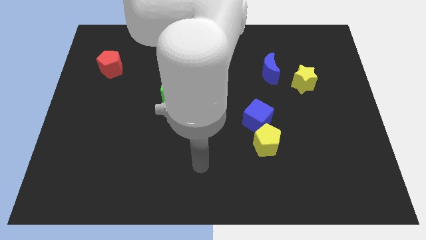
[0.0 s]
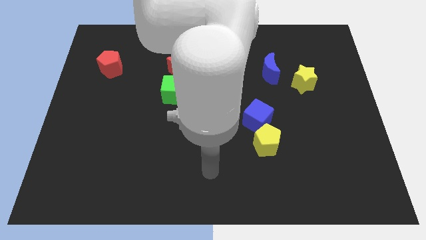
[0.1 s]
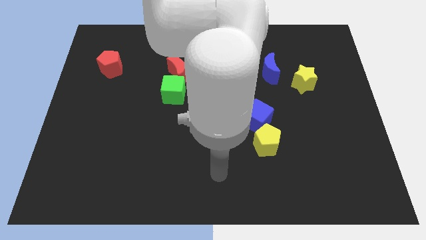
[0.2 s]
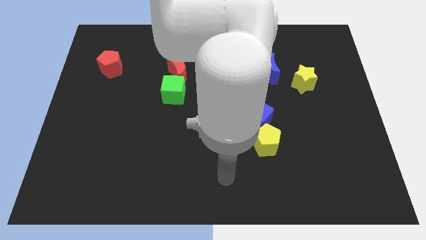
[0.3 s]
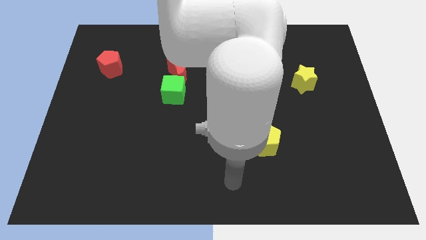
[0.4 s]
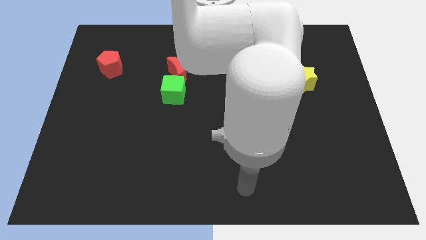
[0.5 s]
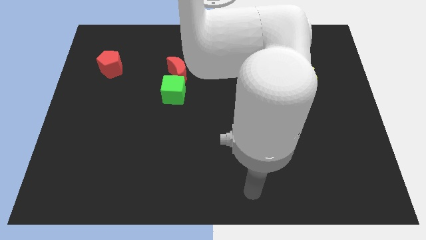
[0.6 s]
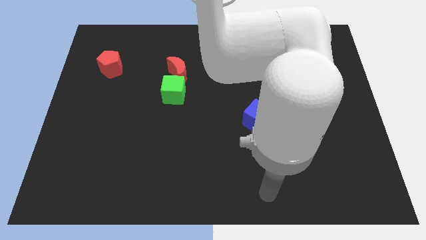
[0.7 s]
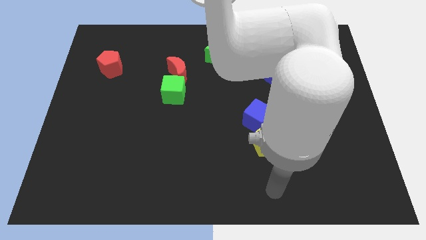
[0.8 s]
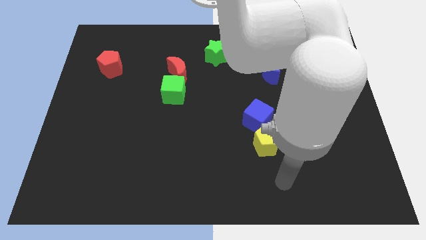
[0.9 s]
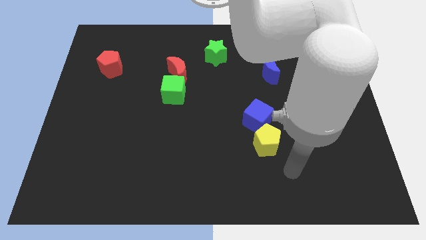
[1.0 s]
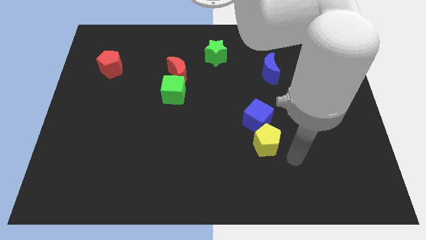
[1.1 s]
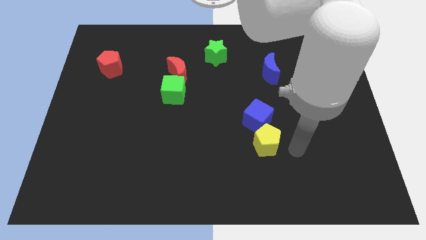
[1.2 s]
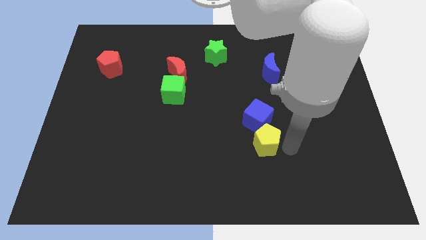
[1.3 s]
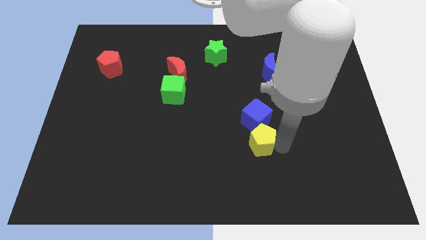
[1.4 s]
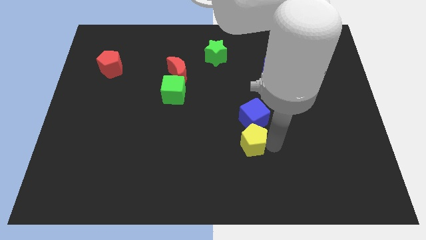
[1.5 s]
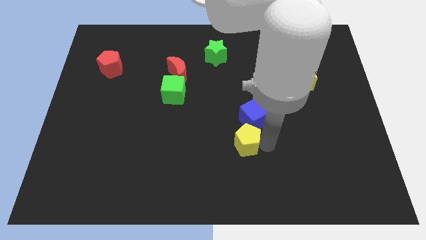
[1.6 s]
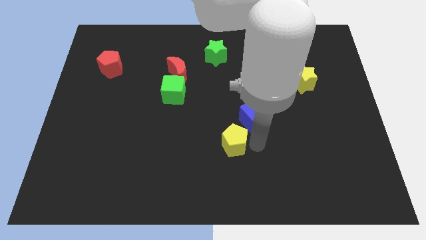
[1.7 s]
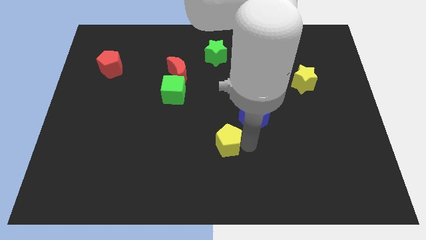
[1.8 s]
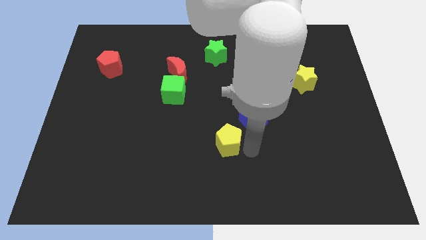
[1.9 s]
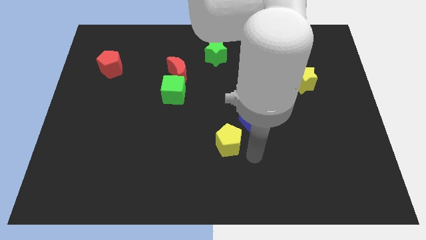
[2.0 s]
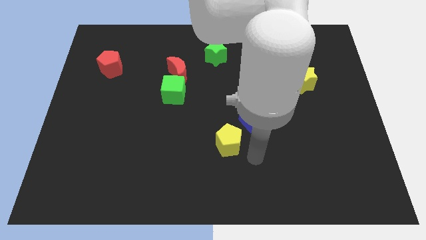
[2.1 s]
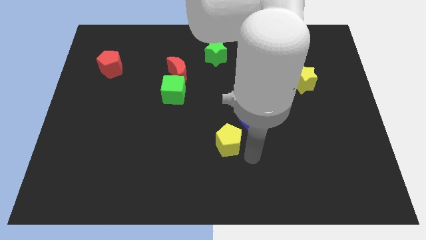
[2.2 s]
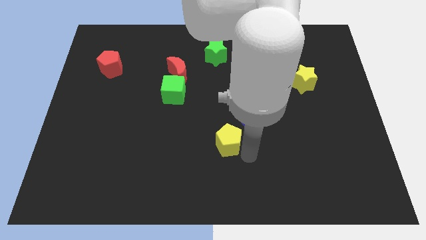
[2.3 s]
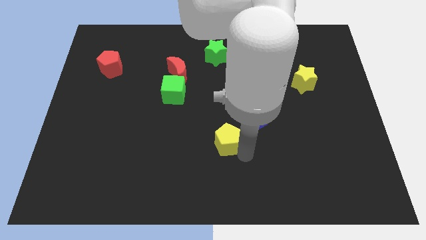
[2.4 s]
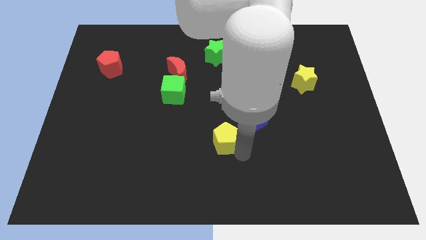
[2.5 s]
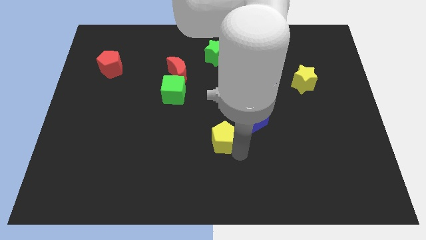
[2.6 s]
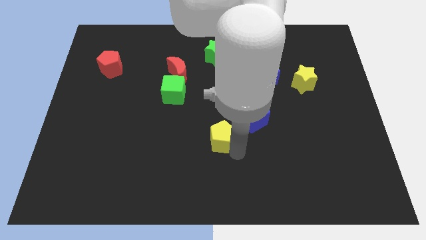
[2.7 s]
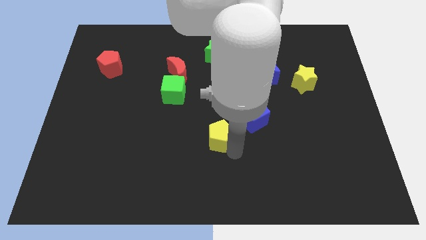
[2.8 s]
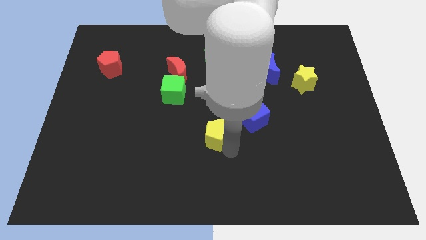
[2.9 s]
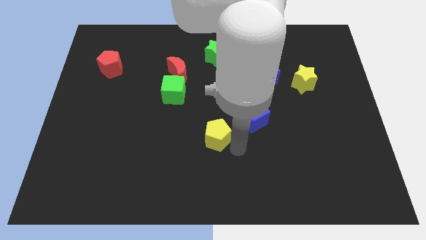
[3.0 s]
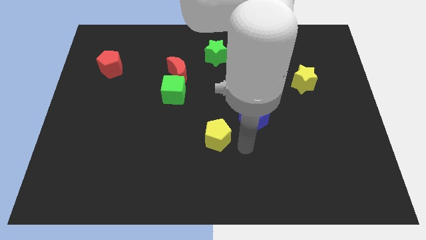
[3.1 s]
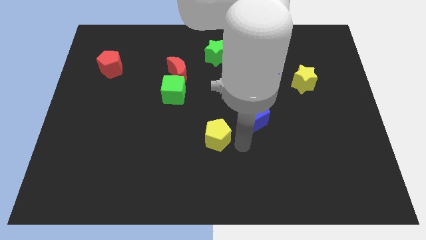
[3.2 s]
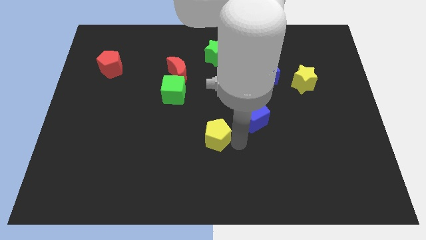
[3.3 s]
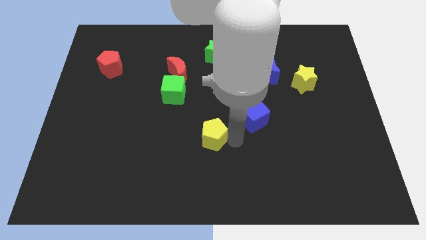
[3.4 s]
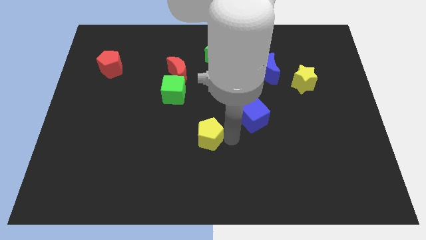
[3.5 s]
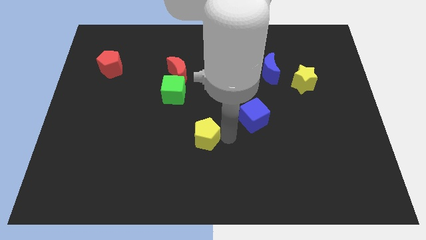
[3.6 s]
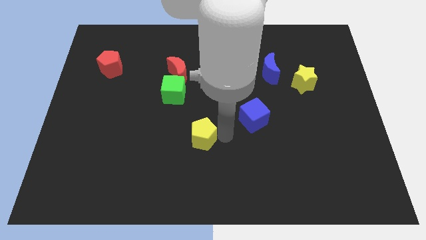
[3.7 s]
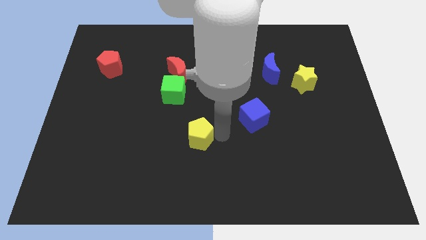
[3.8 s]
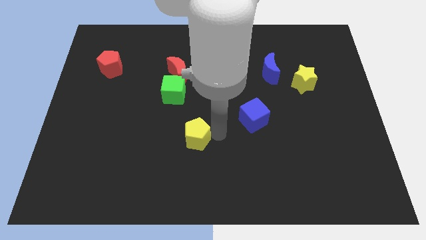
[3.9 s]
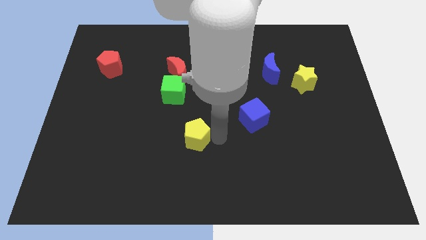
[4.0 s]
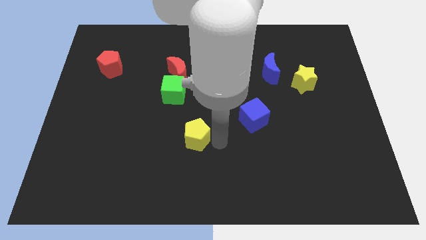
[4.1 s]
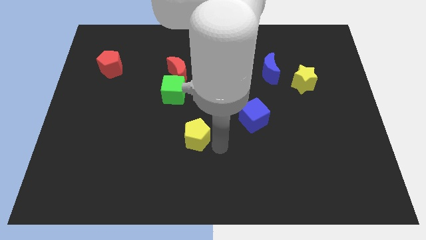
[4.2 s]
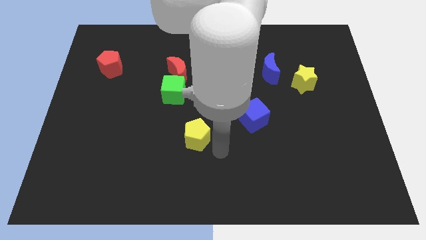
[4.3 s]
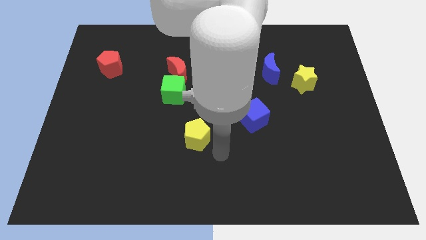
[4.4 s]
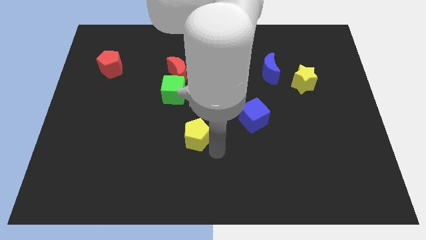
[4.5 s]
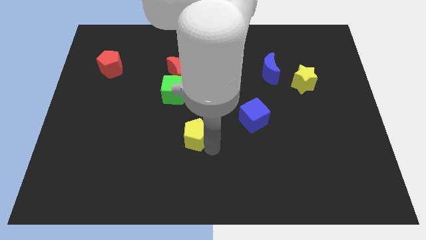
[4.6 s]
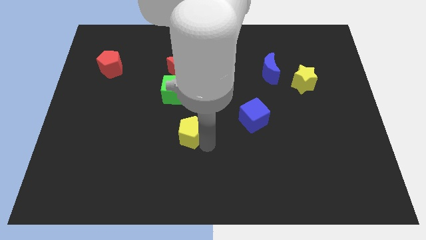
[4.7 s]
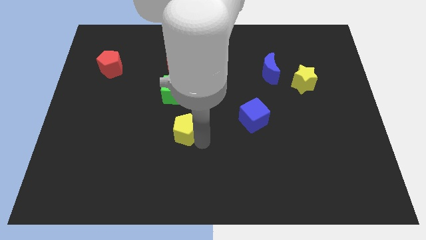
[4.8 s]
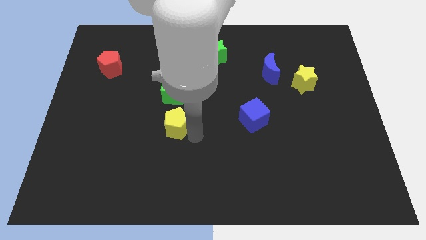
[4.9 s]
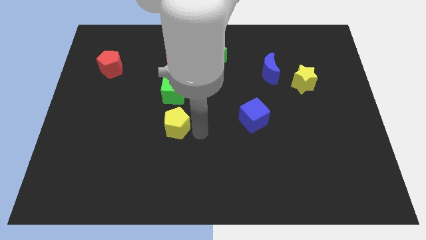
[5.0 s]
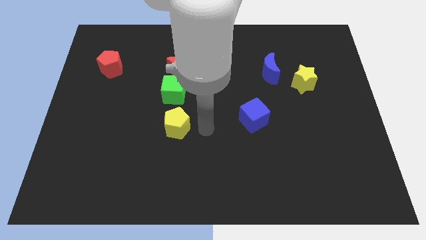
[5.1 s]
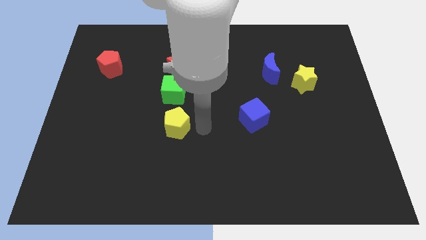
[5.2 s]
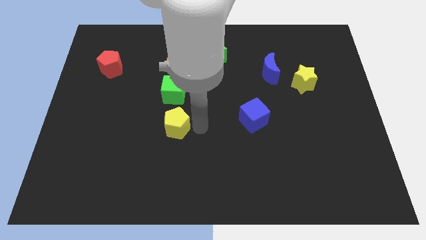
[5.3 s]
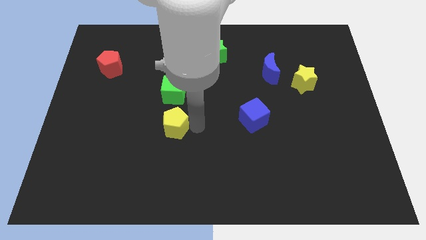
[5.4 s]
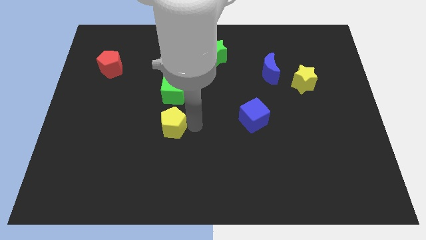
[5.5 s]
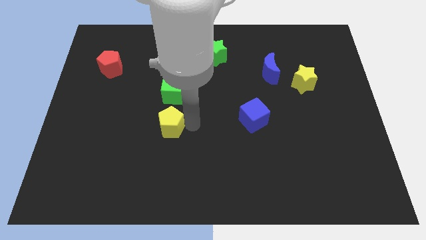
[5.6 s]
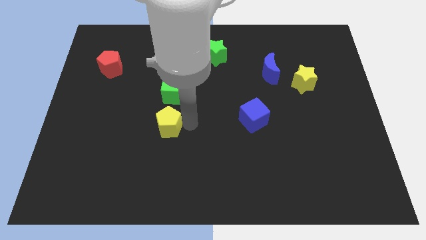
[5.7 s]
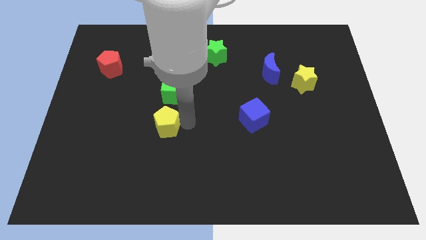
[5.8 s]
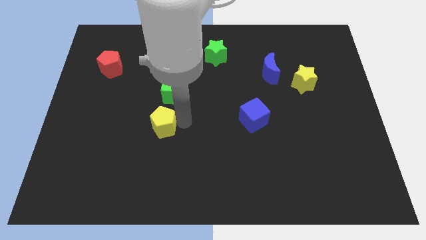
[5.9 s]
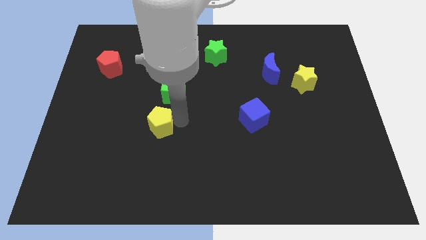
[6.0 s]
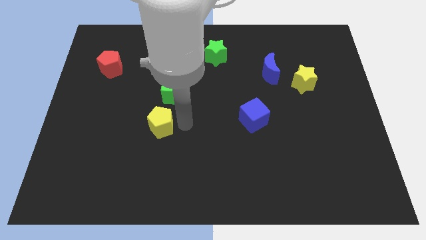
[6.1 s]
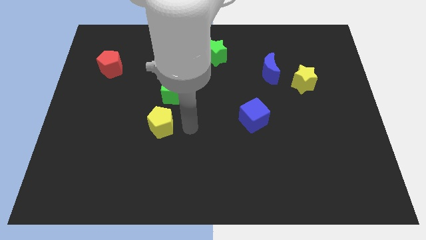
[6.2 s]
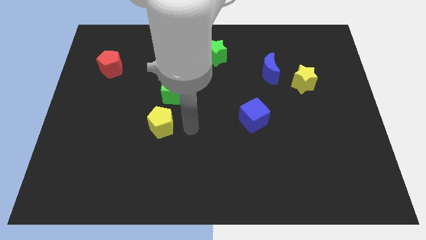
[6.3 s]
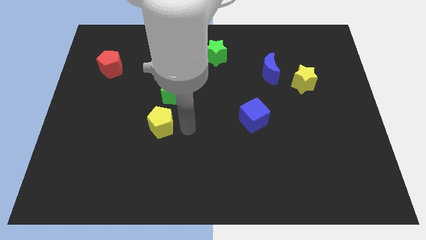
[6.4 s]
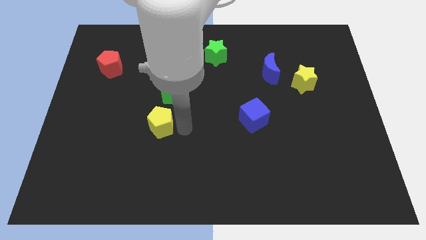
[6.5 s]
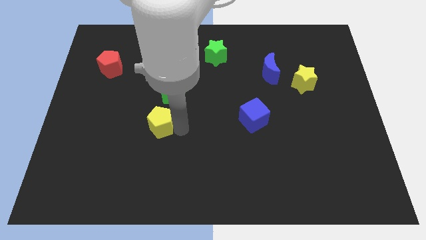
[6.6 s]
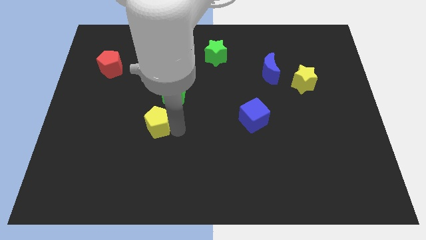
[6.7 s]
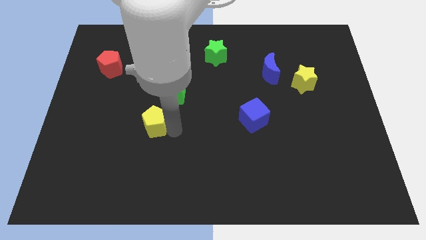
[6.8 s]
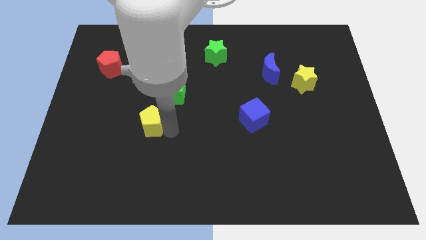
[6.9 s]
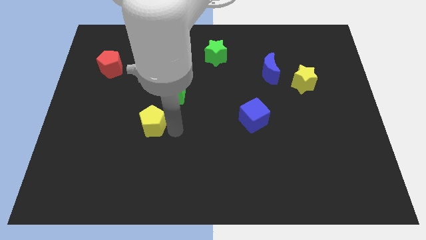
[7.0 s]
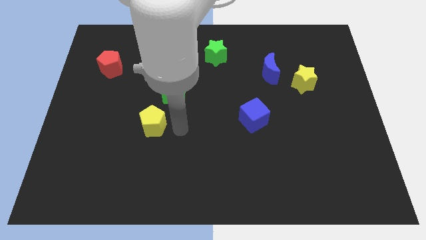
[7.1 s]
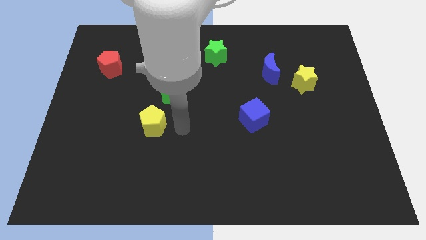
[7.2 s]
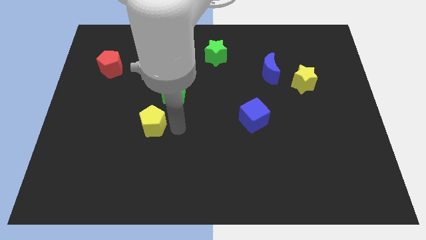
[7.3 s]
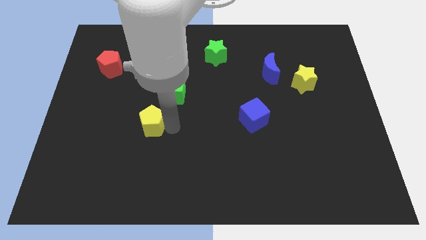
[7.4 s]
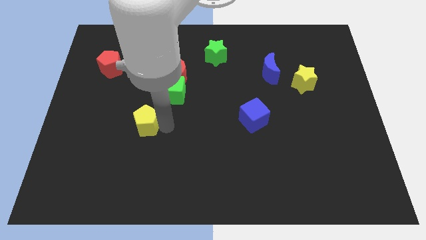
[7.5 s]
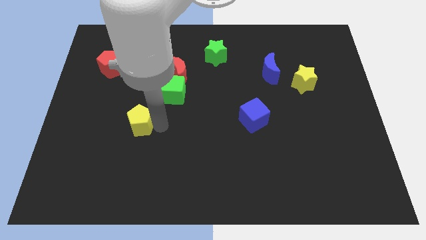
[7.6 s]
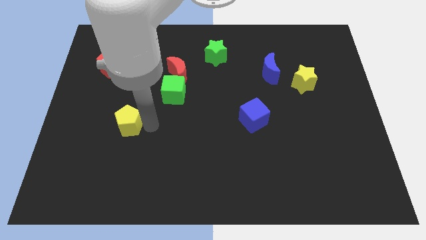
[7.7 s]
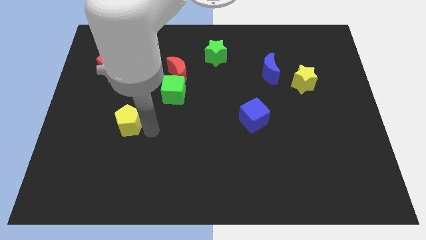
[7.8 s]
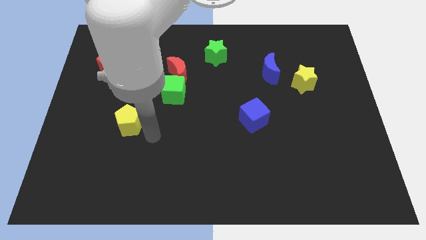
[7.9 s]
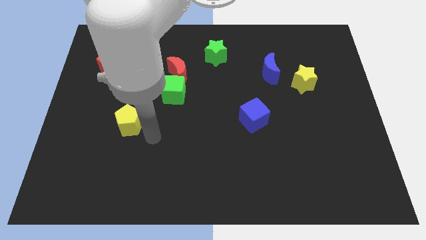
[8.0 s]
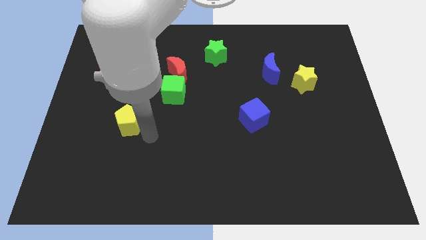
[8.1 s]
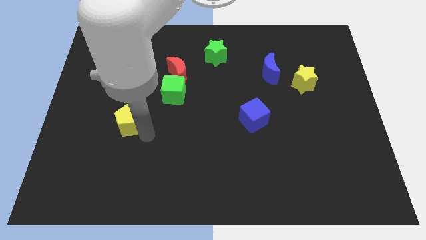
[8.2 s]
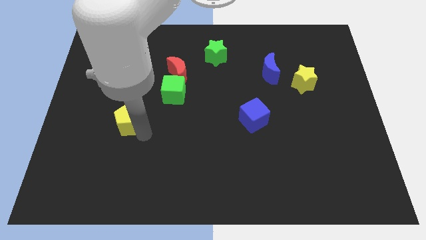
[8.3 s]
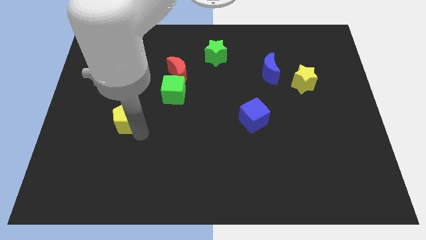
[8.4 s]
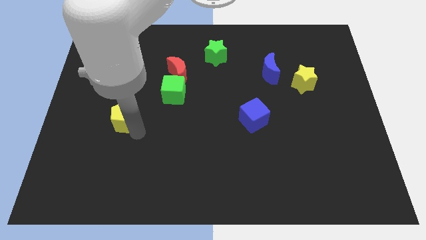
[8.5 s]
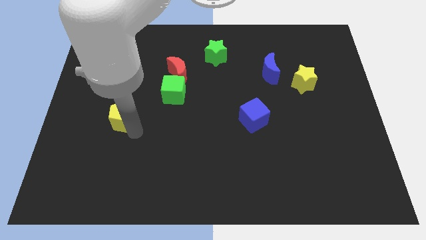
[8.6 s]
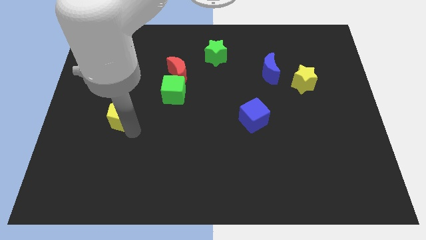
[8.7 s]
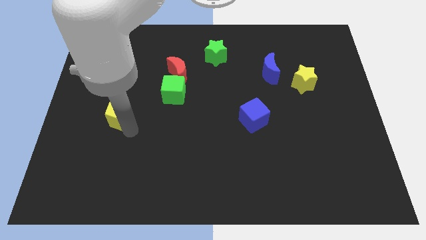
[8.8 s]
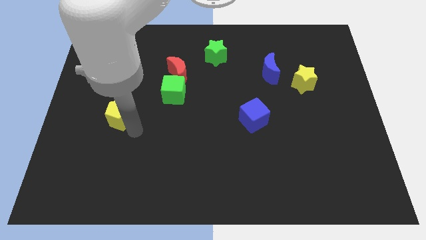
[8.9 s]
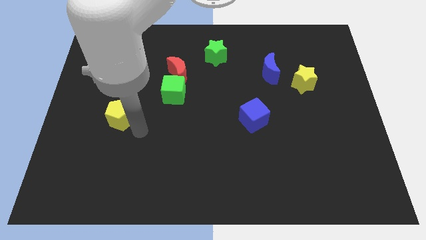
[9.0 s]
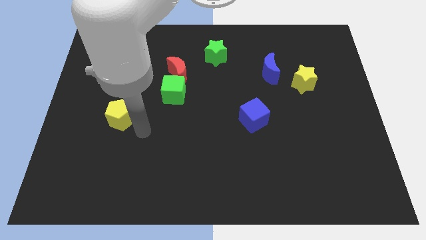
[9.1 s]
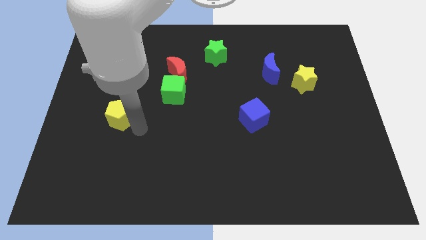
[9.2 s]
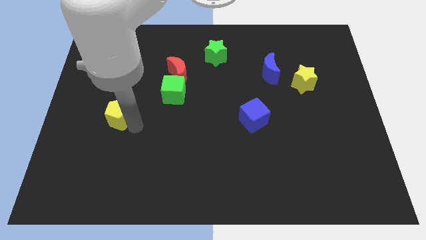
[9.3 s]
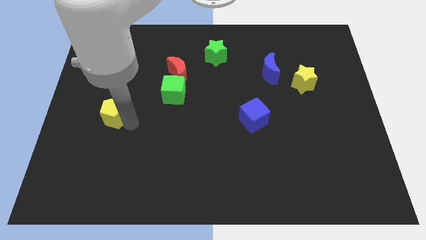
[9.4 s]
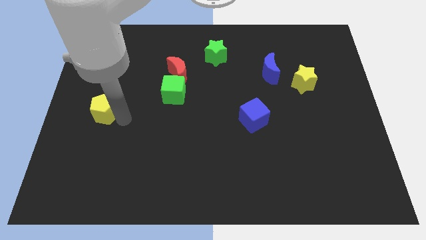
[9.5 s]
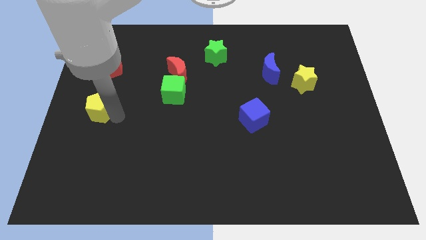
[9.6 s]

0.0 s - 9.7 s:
put the yellow pentagon to the left side
